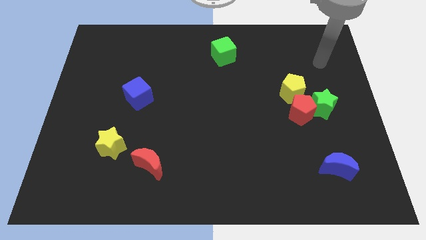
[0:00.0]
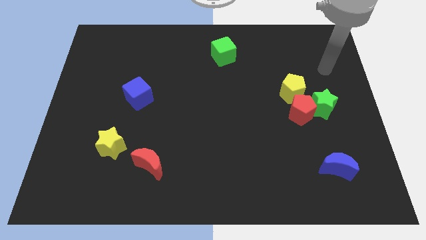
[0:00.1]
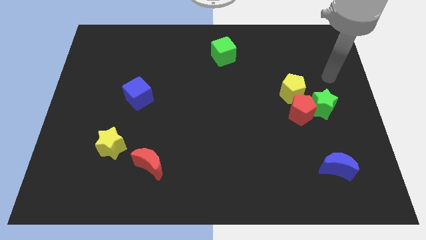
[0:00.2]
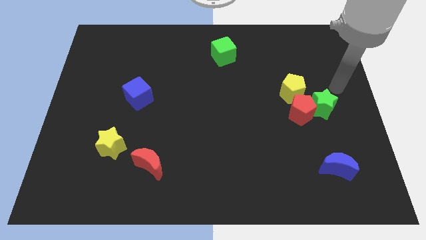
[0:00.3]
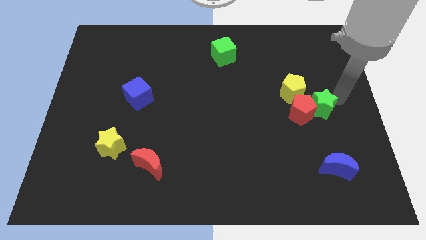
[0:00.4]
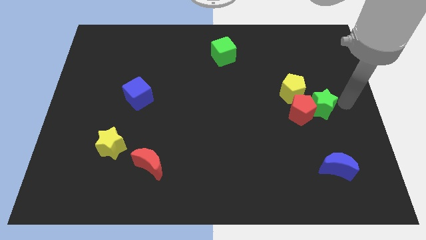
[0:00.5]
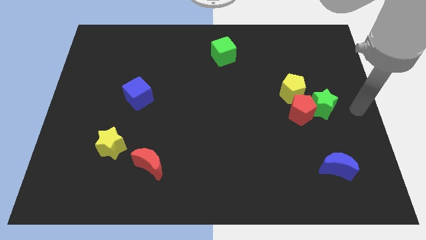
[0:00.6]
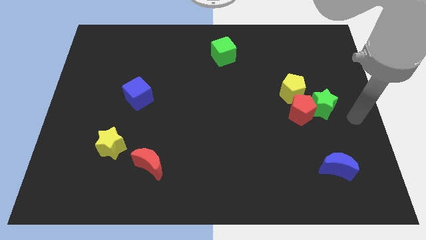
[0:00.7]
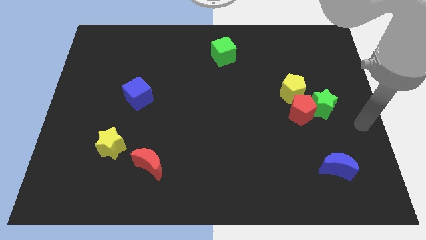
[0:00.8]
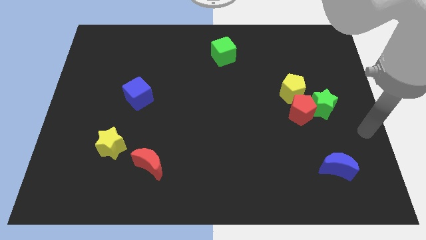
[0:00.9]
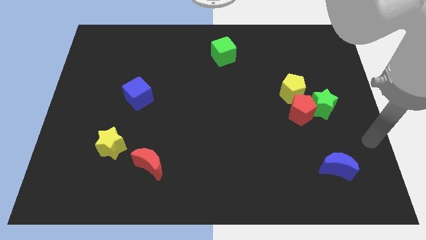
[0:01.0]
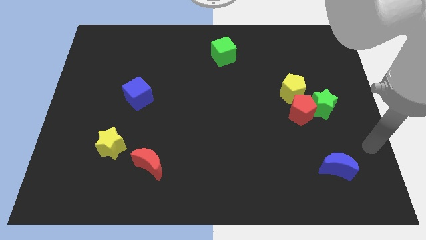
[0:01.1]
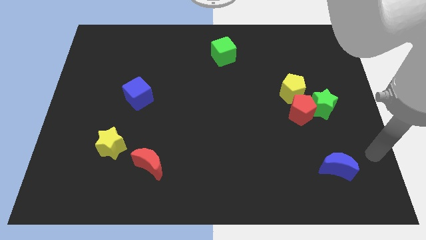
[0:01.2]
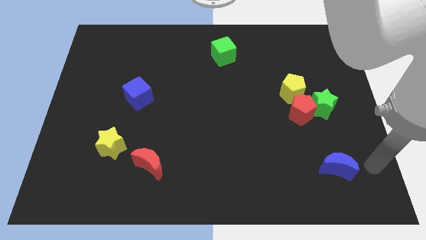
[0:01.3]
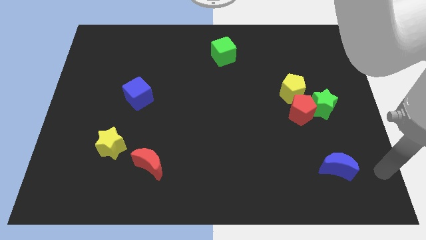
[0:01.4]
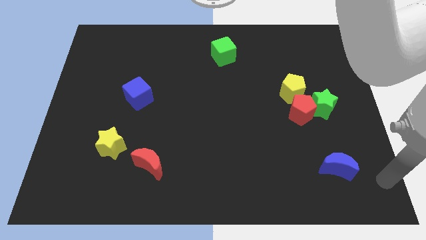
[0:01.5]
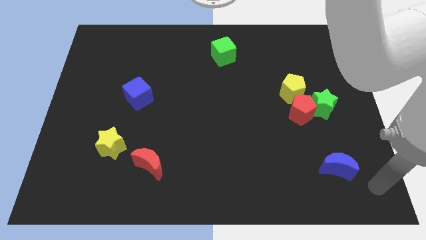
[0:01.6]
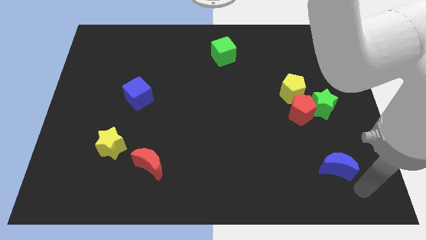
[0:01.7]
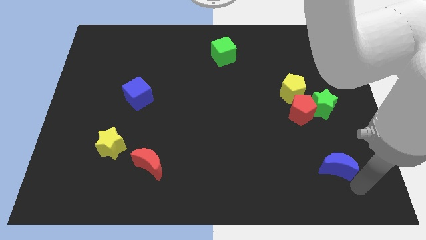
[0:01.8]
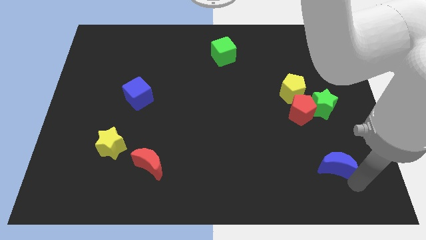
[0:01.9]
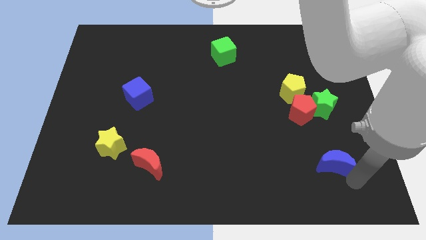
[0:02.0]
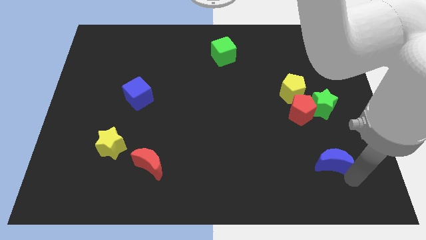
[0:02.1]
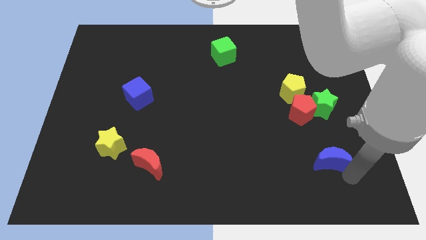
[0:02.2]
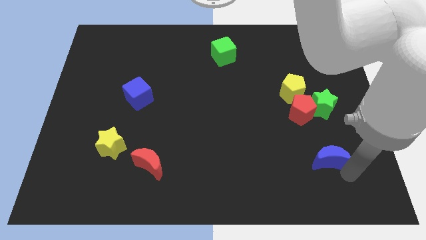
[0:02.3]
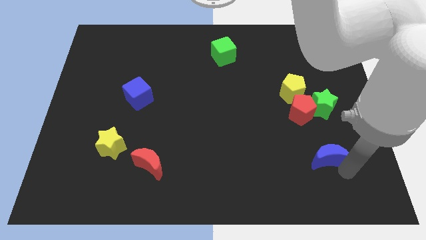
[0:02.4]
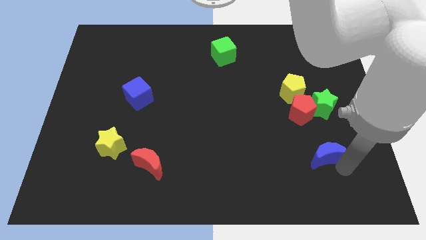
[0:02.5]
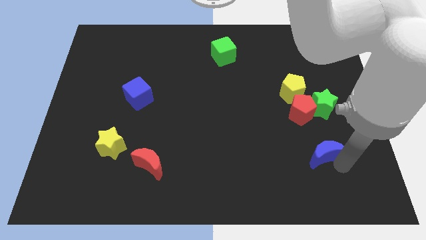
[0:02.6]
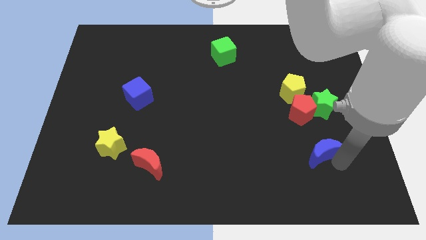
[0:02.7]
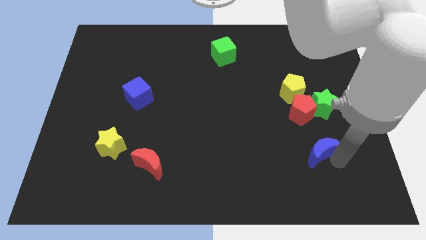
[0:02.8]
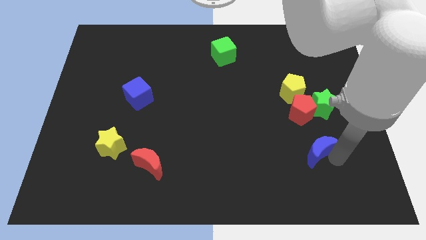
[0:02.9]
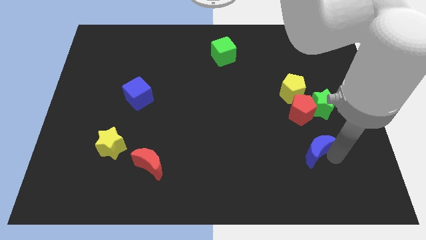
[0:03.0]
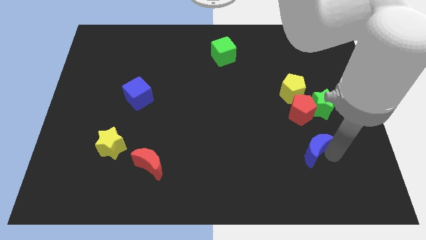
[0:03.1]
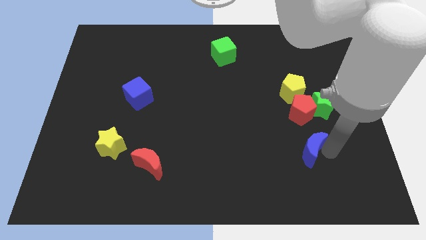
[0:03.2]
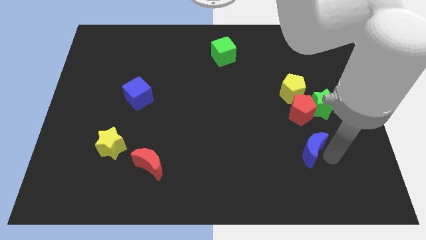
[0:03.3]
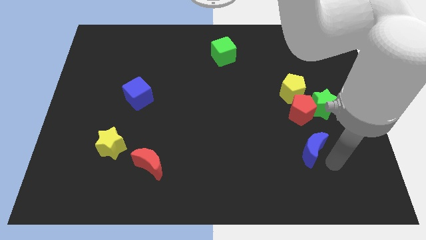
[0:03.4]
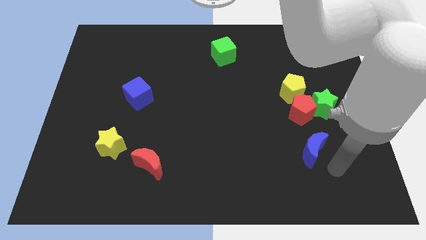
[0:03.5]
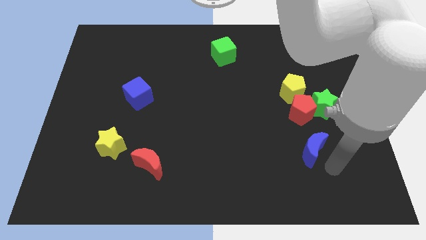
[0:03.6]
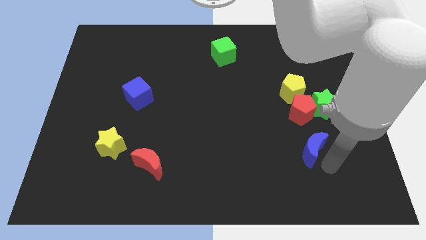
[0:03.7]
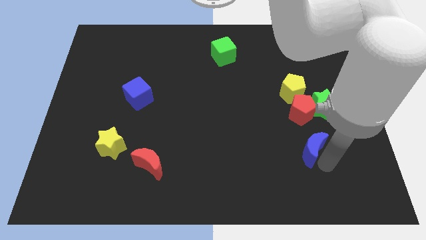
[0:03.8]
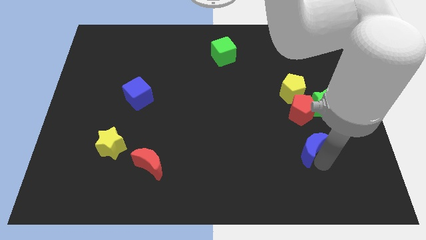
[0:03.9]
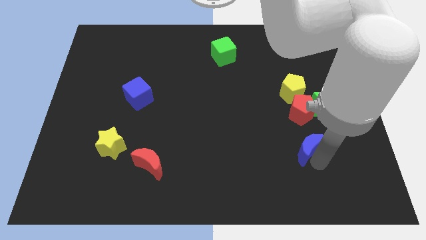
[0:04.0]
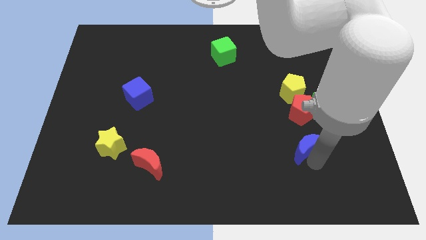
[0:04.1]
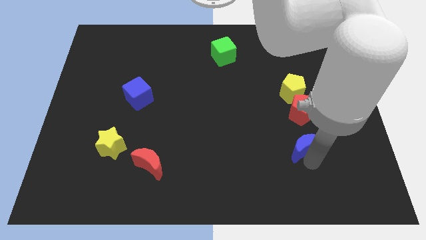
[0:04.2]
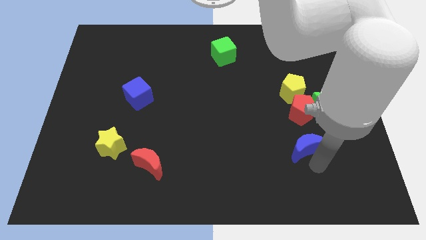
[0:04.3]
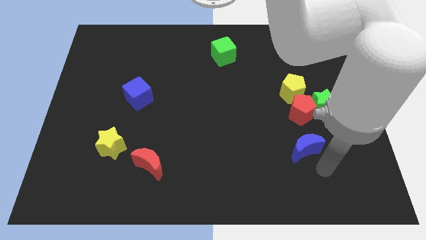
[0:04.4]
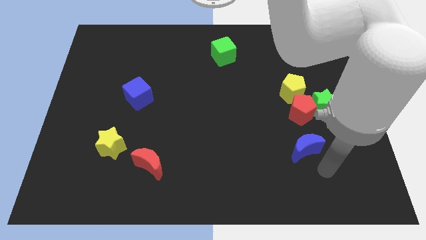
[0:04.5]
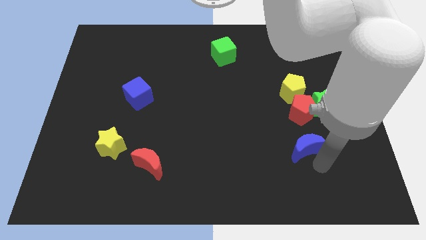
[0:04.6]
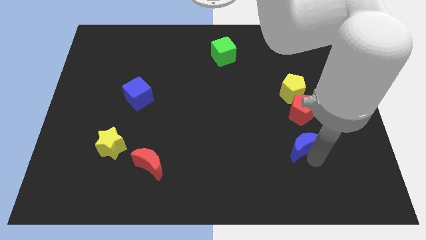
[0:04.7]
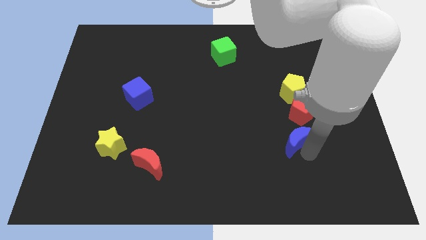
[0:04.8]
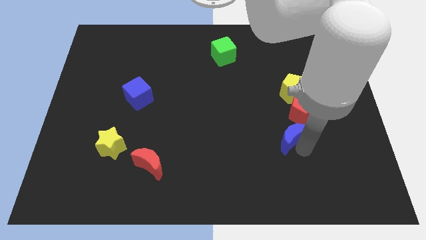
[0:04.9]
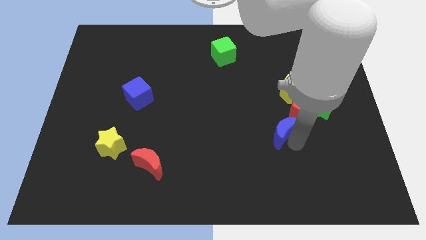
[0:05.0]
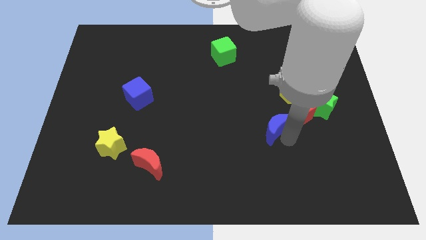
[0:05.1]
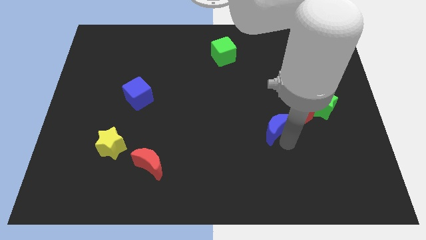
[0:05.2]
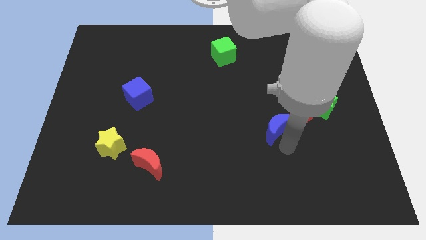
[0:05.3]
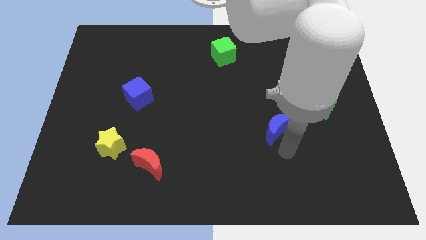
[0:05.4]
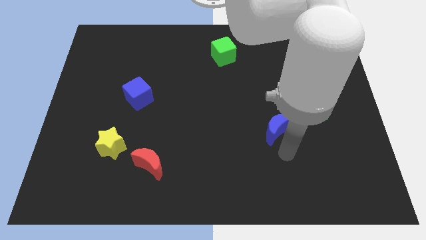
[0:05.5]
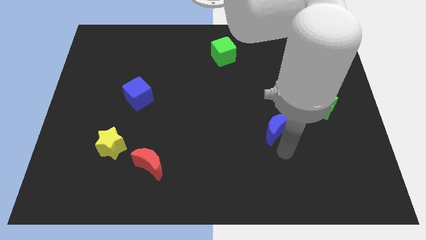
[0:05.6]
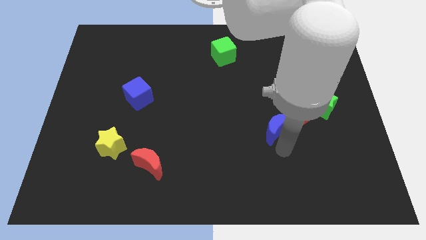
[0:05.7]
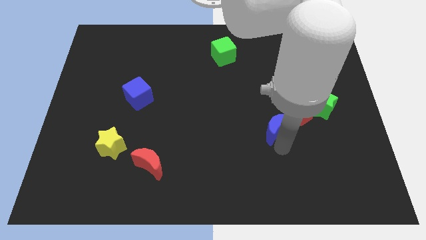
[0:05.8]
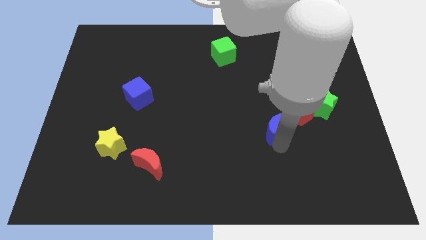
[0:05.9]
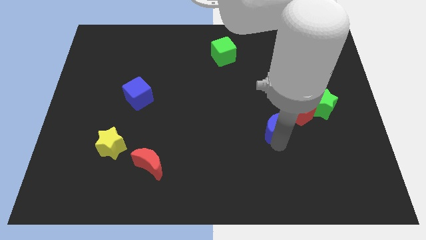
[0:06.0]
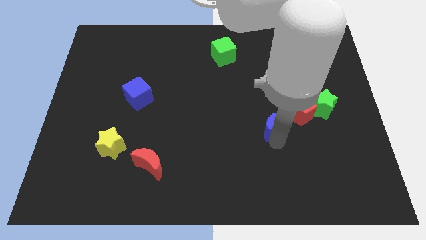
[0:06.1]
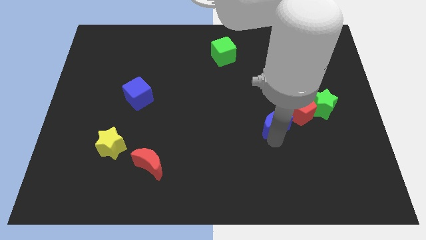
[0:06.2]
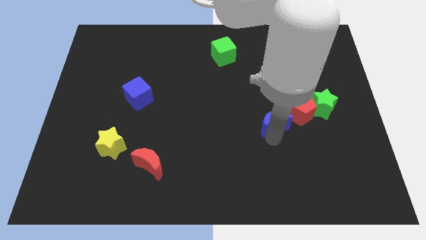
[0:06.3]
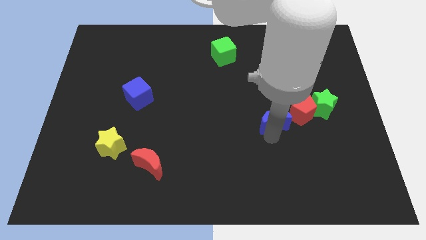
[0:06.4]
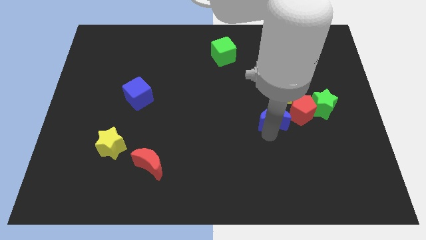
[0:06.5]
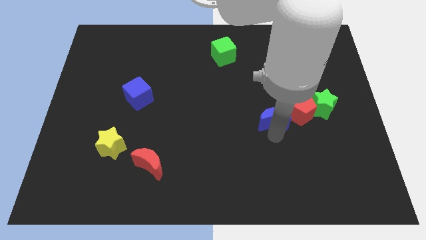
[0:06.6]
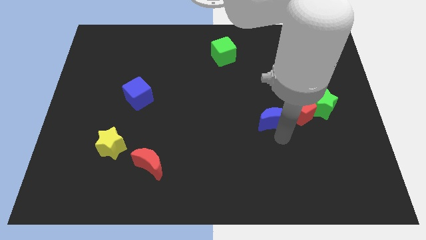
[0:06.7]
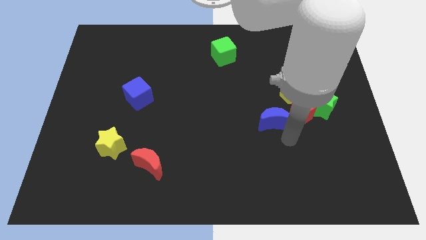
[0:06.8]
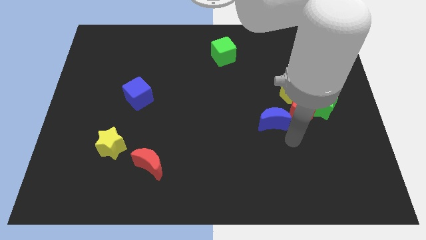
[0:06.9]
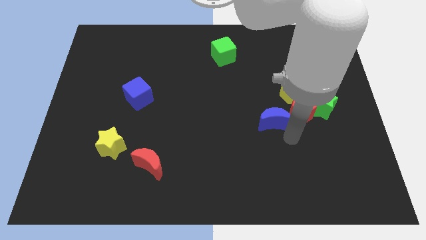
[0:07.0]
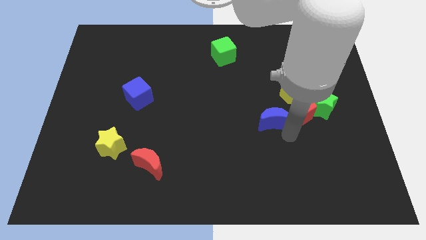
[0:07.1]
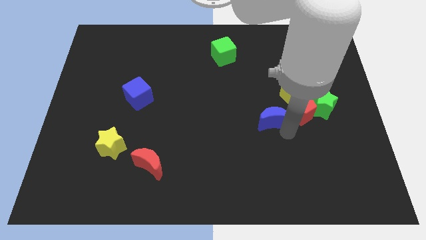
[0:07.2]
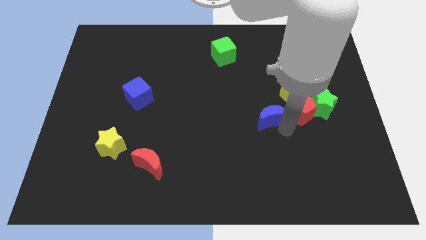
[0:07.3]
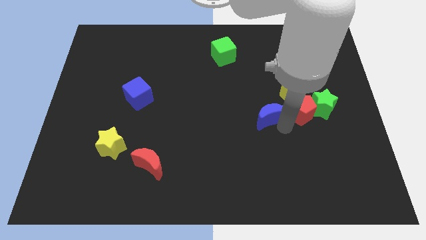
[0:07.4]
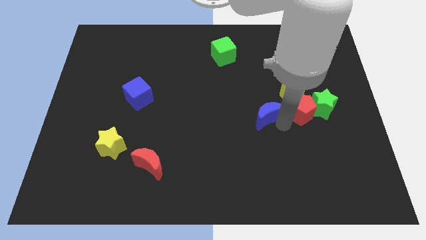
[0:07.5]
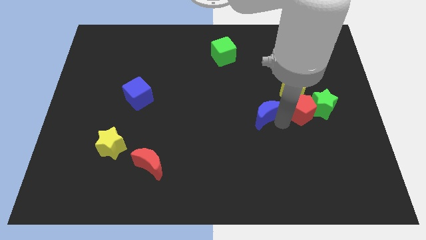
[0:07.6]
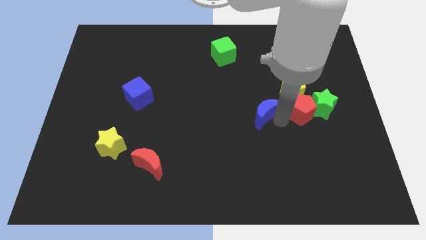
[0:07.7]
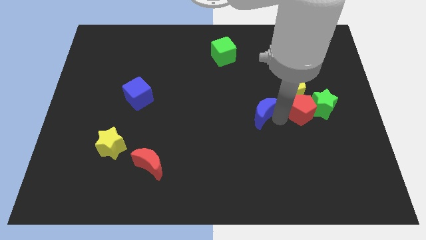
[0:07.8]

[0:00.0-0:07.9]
push the blue moon upwards and left diagonally

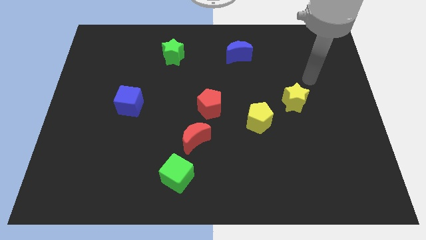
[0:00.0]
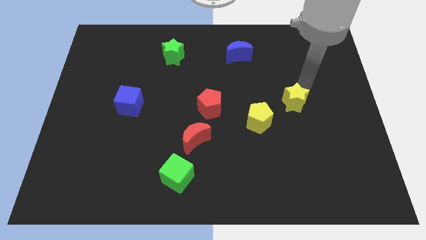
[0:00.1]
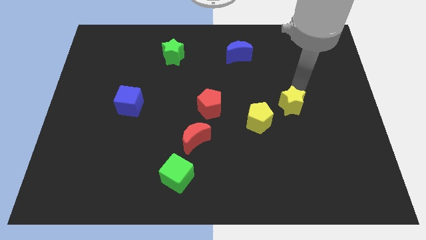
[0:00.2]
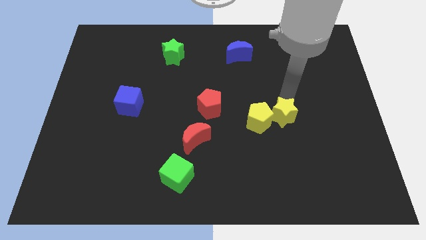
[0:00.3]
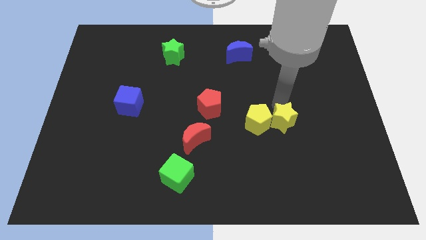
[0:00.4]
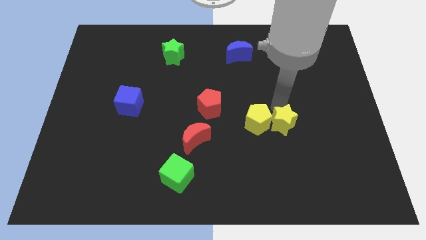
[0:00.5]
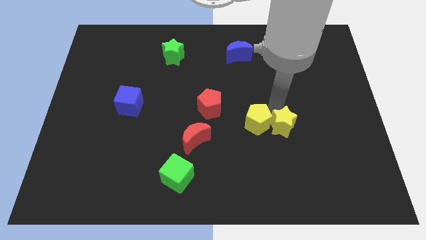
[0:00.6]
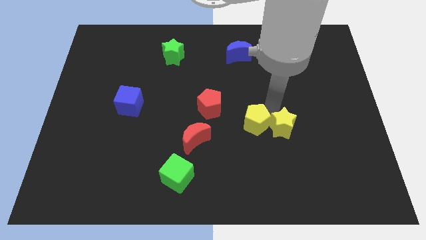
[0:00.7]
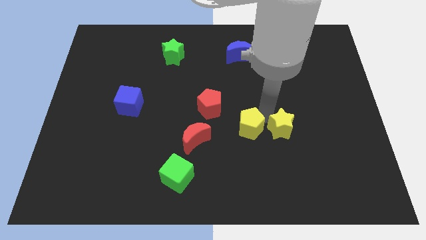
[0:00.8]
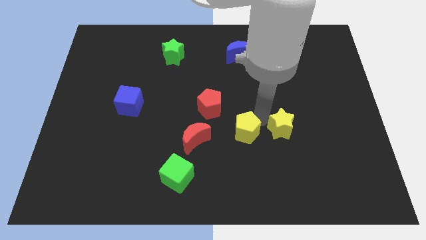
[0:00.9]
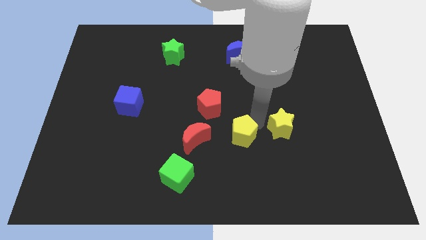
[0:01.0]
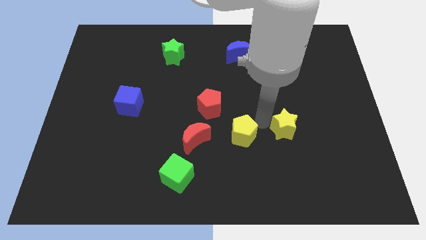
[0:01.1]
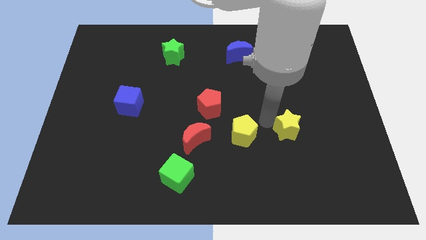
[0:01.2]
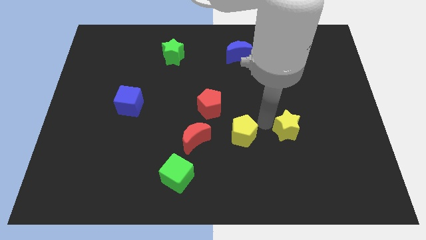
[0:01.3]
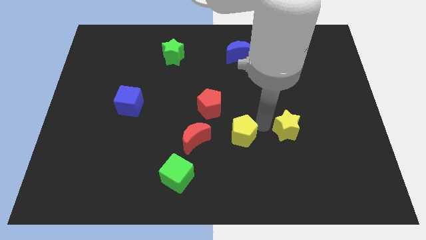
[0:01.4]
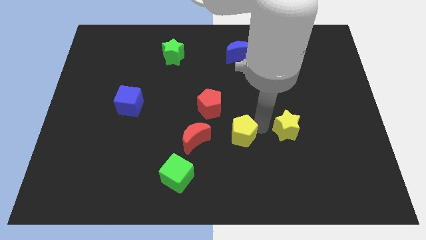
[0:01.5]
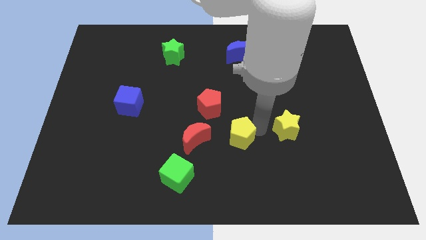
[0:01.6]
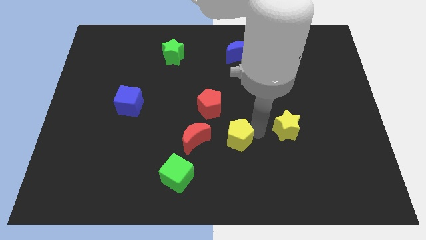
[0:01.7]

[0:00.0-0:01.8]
slide the yellow pentagon diagonally downwards and to the left slightly
